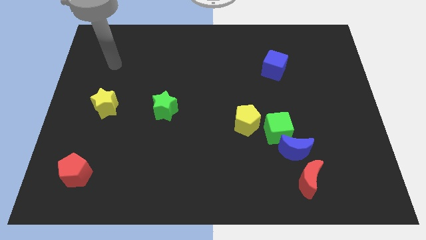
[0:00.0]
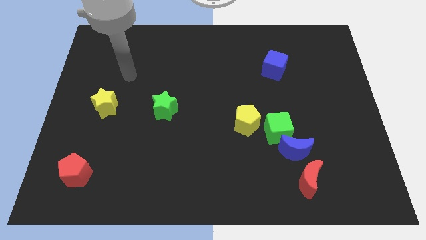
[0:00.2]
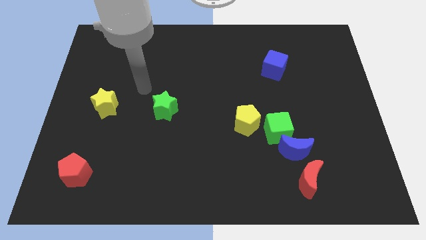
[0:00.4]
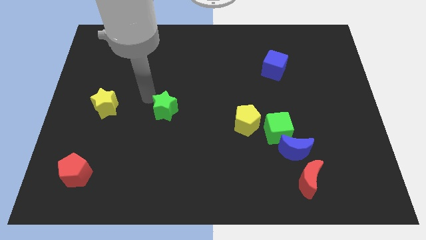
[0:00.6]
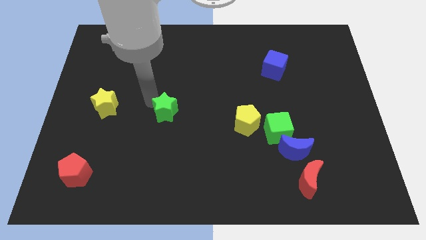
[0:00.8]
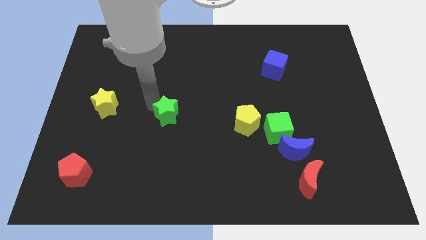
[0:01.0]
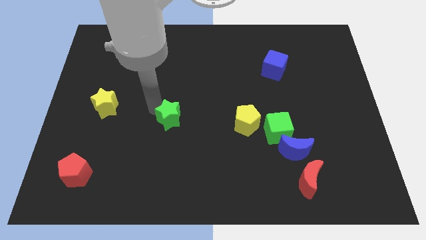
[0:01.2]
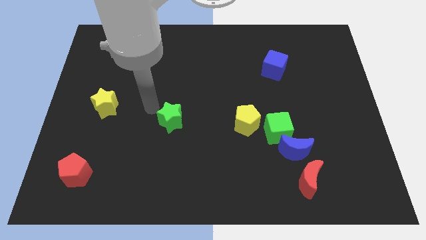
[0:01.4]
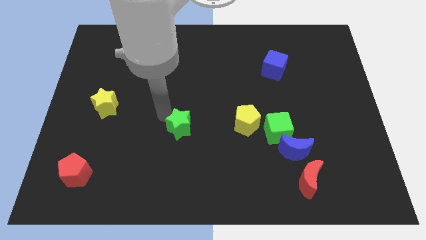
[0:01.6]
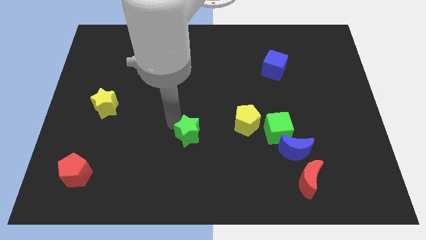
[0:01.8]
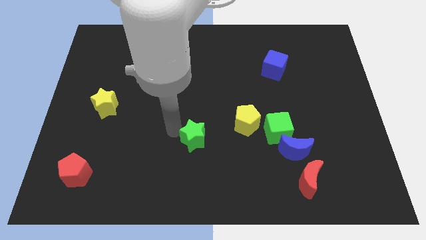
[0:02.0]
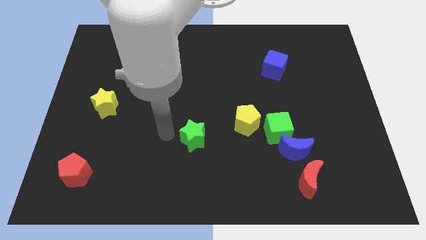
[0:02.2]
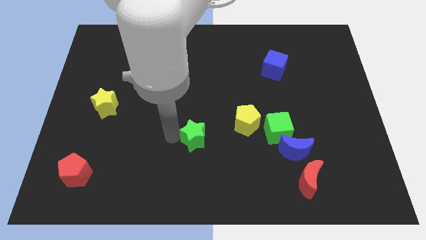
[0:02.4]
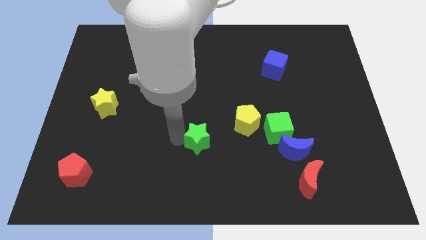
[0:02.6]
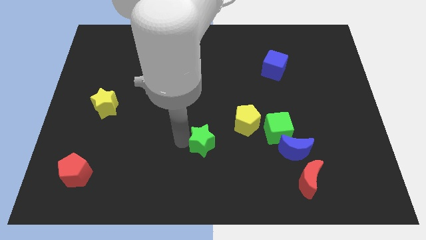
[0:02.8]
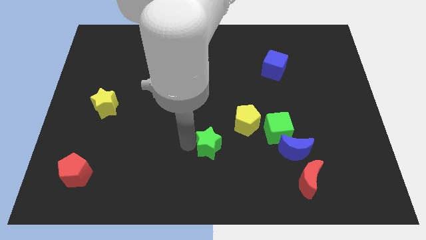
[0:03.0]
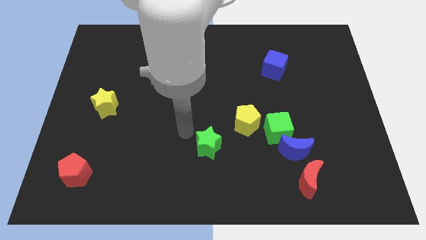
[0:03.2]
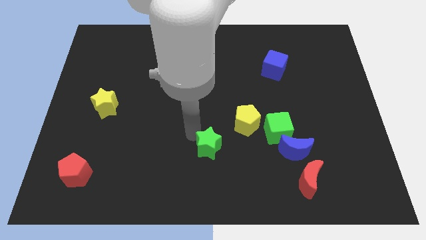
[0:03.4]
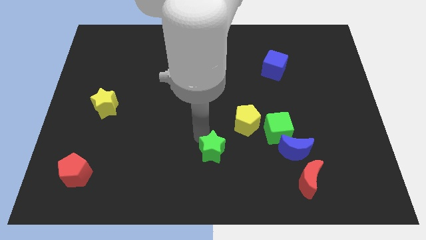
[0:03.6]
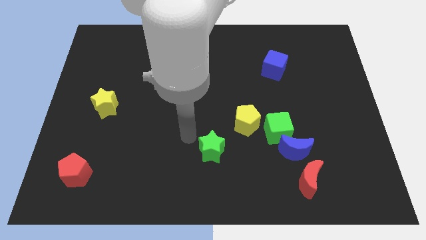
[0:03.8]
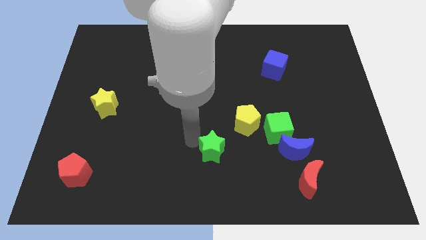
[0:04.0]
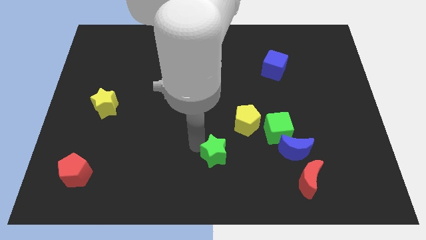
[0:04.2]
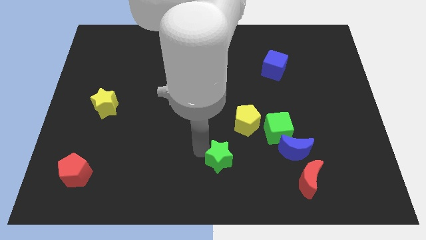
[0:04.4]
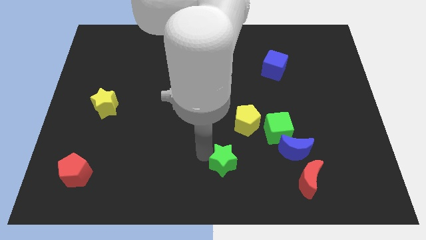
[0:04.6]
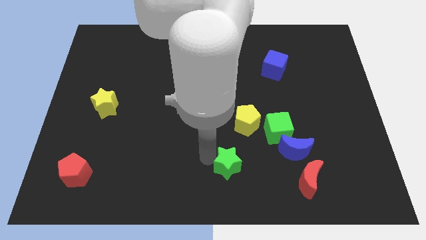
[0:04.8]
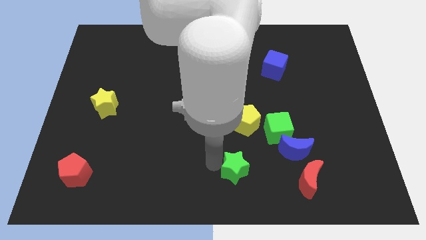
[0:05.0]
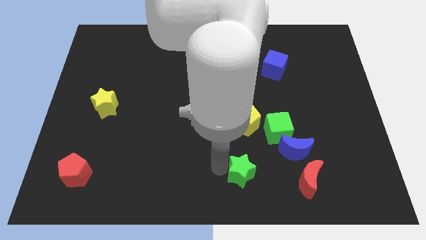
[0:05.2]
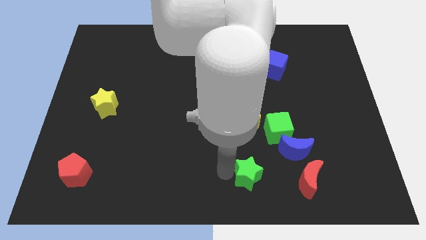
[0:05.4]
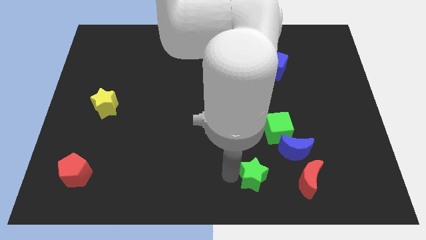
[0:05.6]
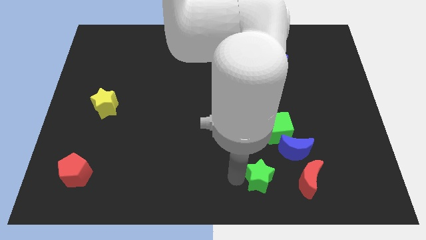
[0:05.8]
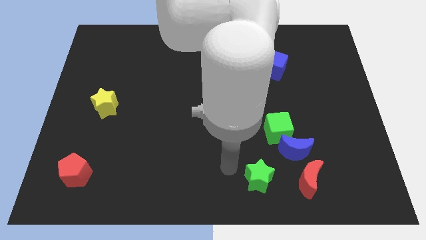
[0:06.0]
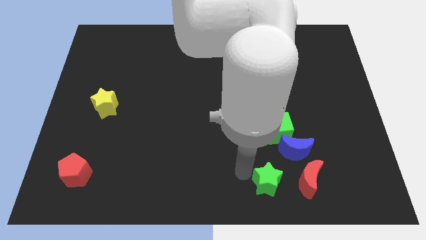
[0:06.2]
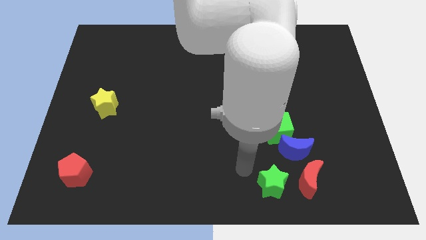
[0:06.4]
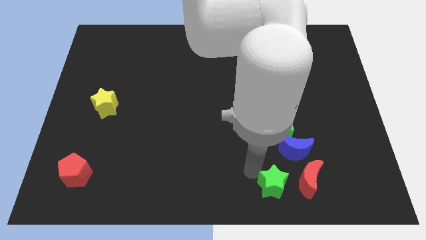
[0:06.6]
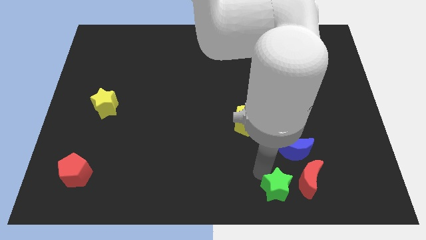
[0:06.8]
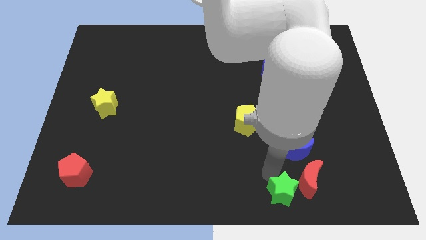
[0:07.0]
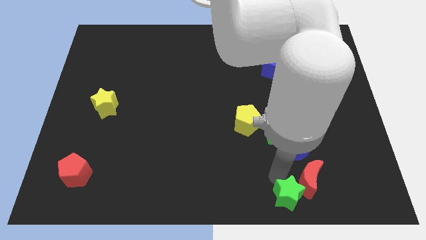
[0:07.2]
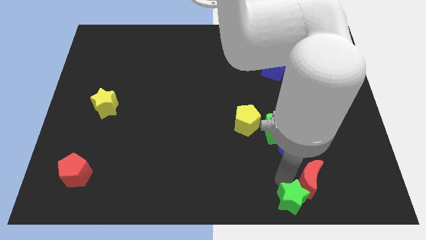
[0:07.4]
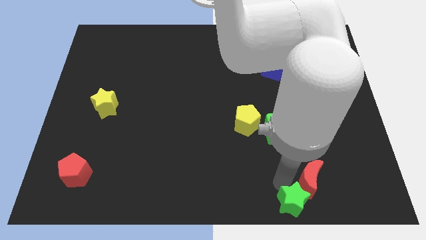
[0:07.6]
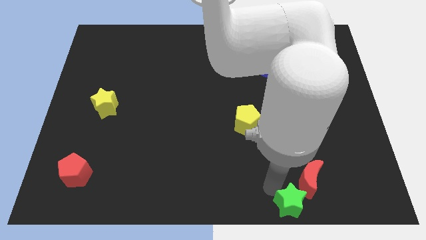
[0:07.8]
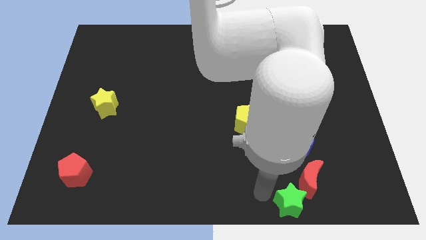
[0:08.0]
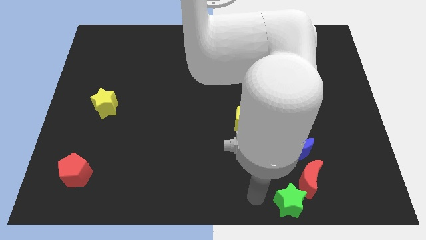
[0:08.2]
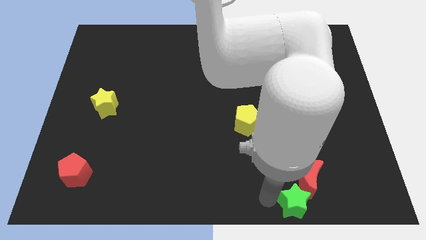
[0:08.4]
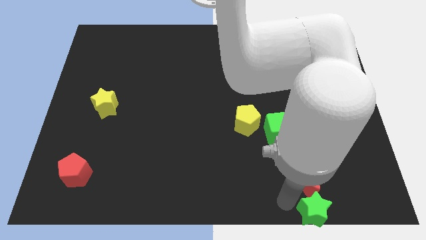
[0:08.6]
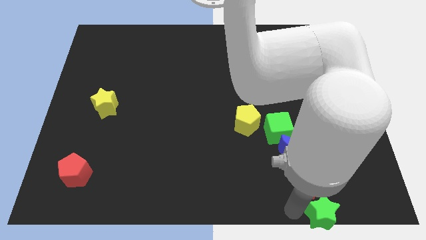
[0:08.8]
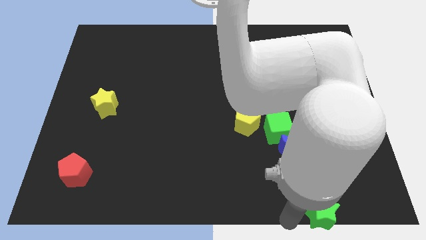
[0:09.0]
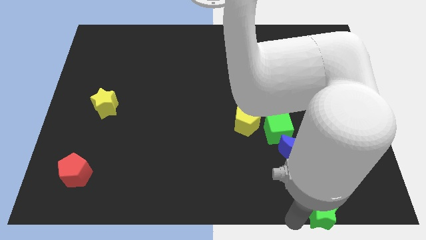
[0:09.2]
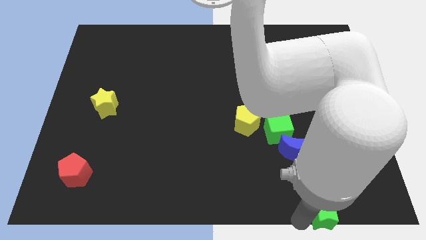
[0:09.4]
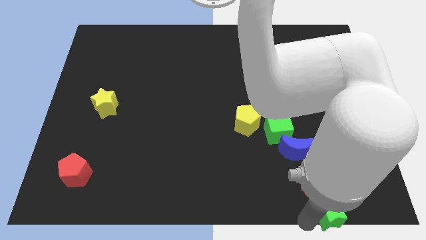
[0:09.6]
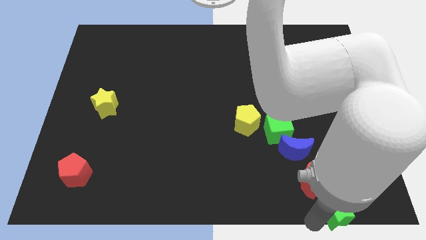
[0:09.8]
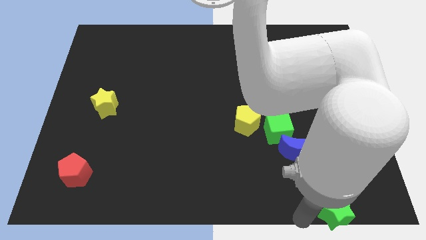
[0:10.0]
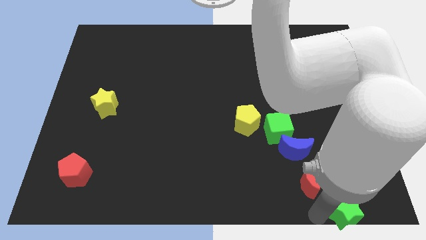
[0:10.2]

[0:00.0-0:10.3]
move the green star to the bottom right of the board

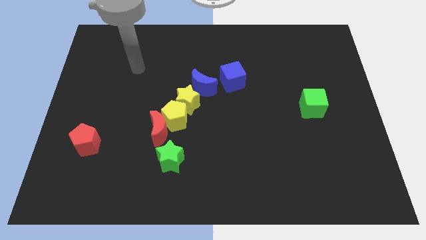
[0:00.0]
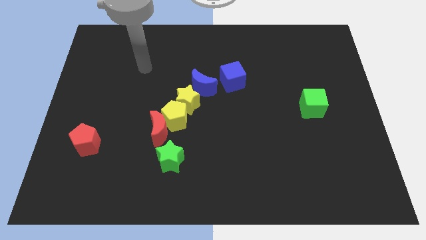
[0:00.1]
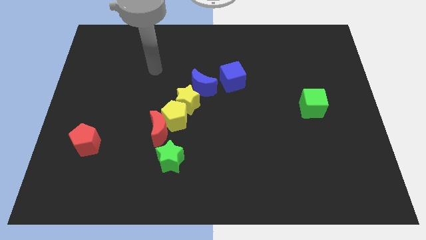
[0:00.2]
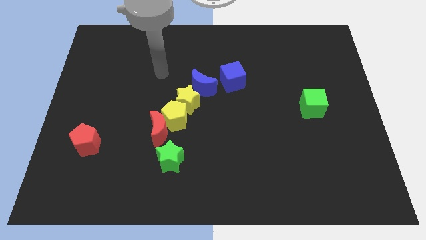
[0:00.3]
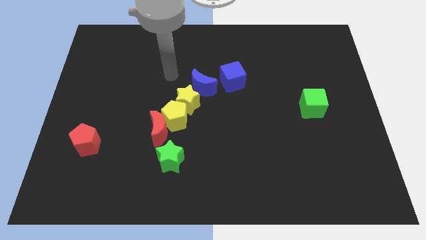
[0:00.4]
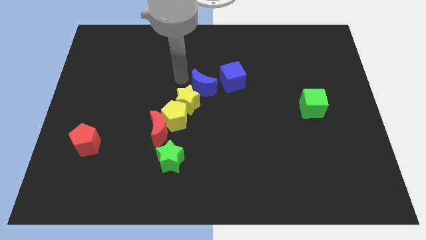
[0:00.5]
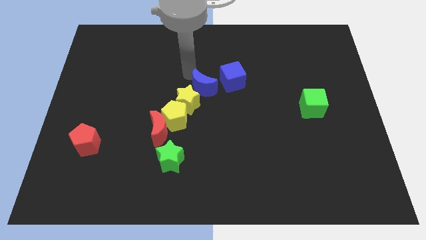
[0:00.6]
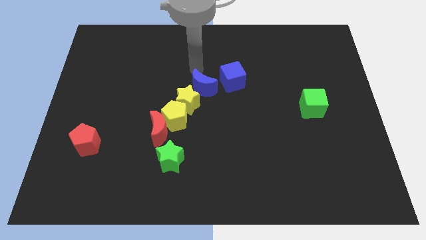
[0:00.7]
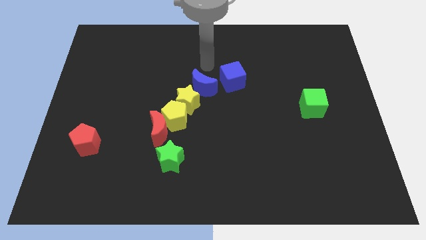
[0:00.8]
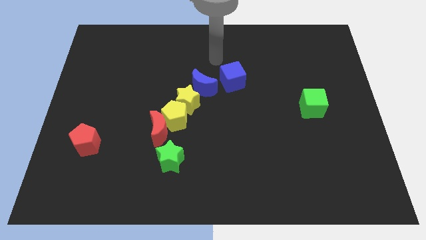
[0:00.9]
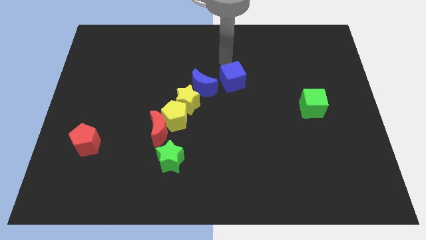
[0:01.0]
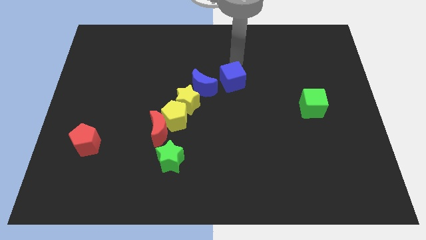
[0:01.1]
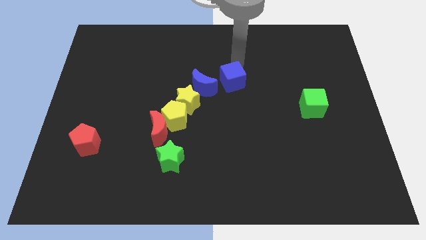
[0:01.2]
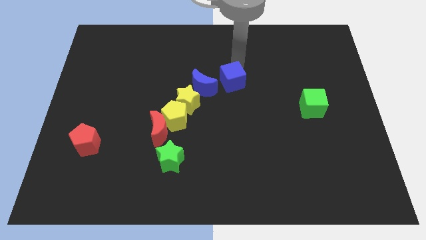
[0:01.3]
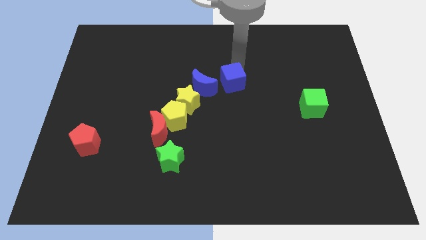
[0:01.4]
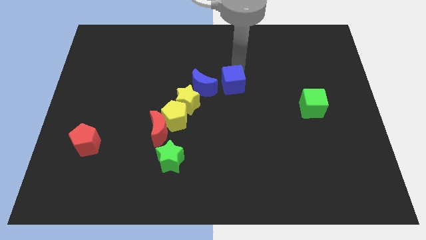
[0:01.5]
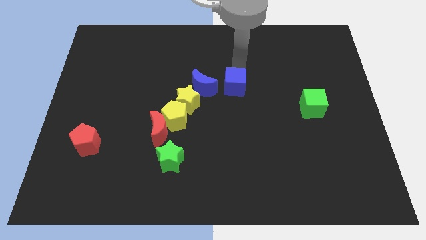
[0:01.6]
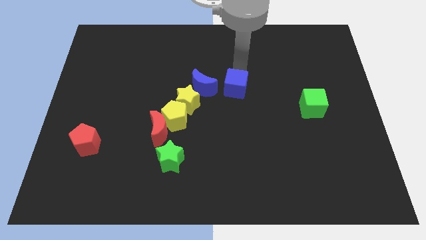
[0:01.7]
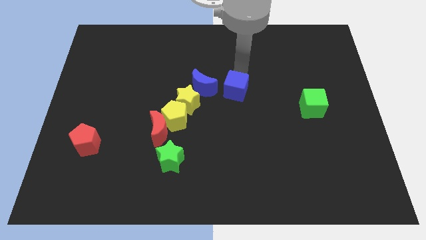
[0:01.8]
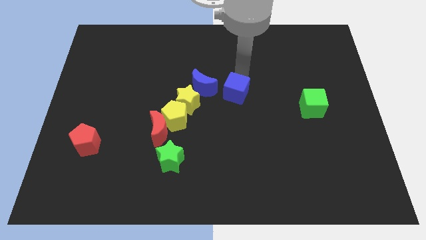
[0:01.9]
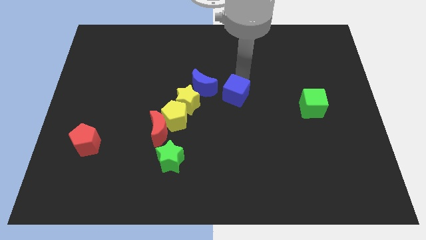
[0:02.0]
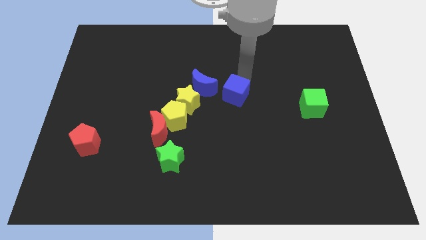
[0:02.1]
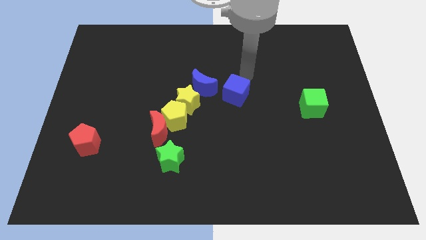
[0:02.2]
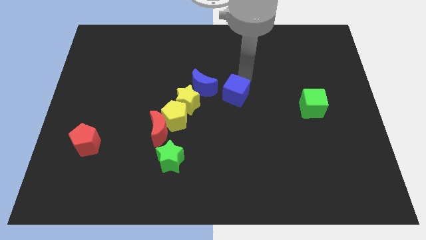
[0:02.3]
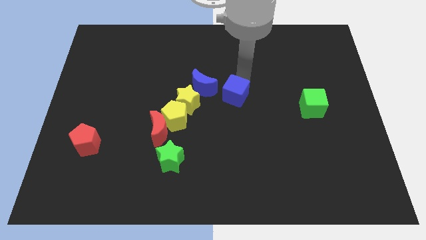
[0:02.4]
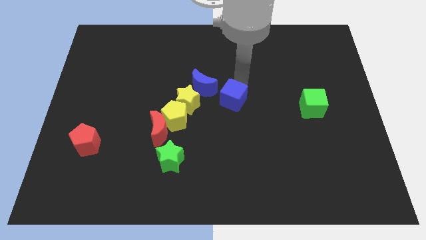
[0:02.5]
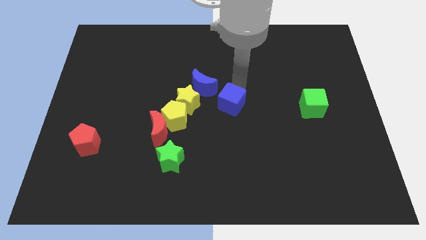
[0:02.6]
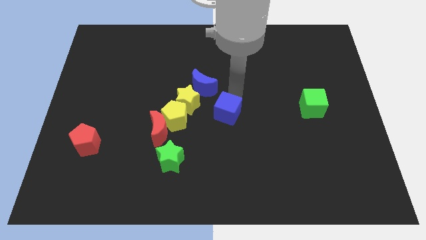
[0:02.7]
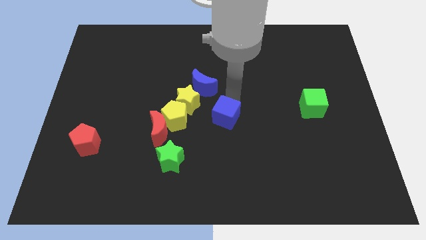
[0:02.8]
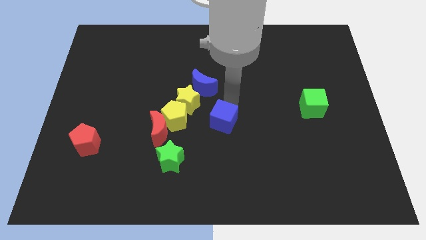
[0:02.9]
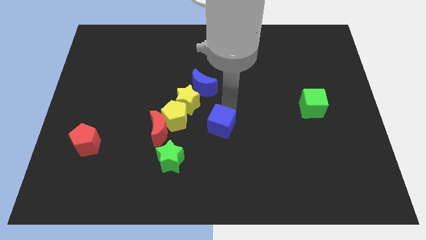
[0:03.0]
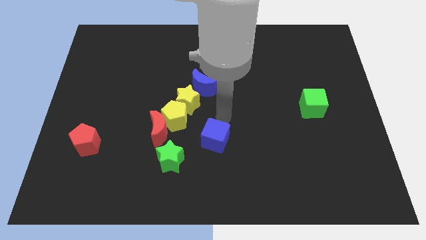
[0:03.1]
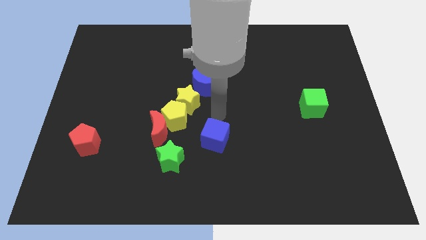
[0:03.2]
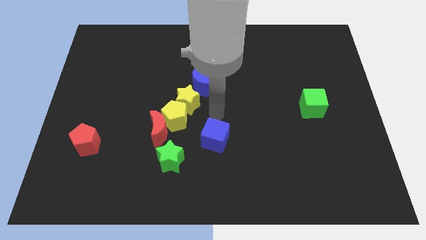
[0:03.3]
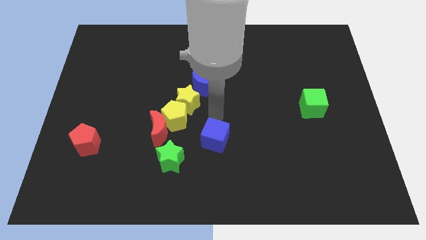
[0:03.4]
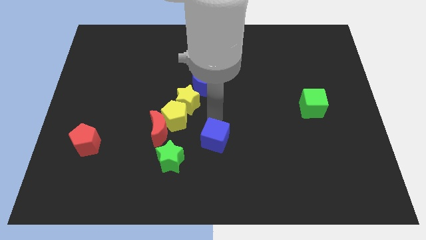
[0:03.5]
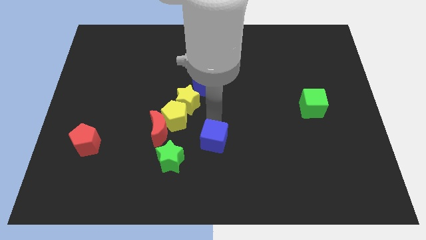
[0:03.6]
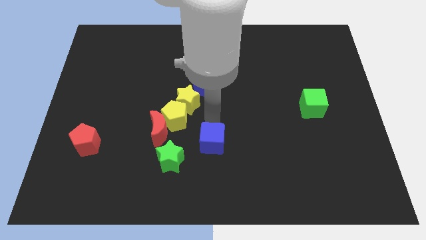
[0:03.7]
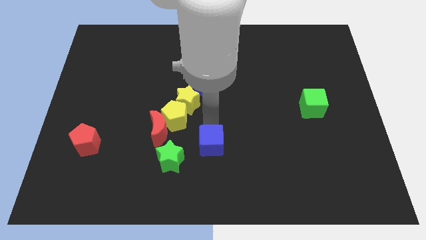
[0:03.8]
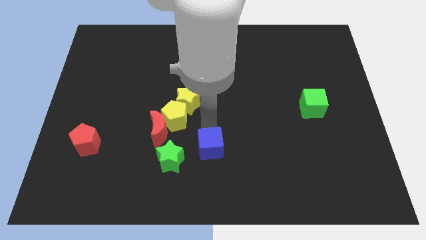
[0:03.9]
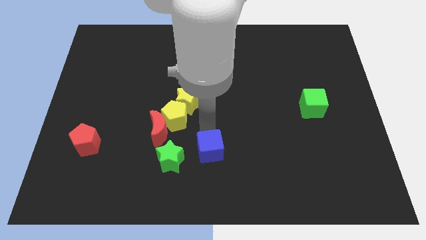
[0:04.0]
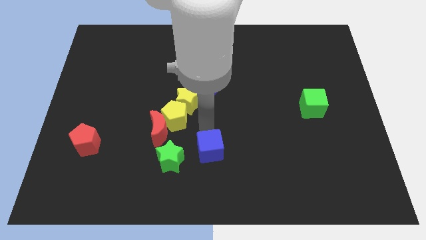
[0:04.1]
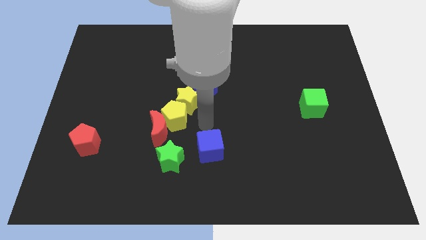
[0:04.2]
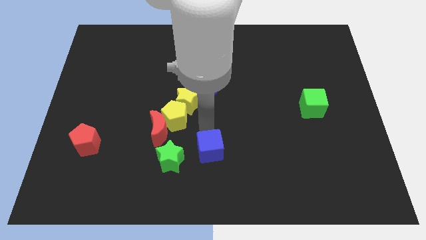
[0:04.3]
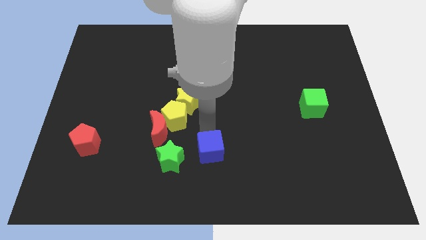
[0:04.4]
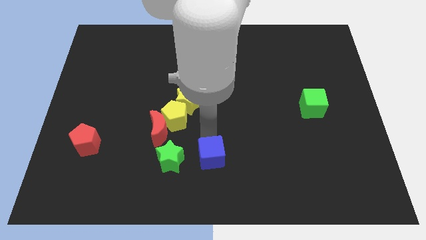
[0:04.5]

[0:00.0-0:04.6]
push the blue cube to the bottom
